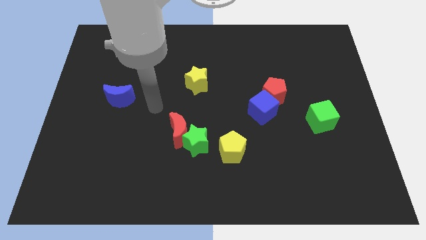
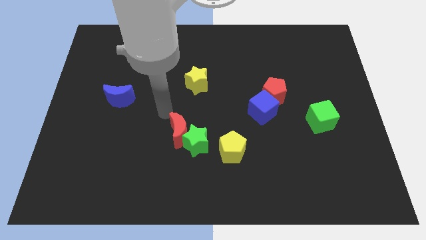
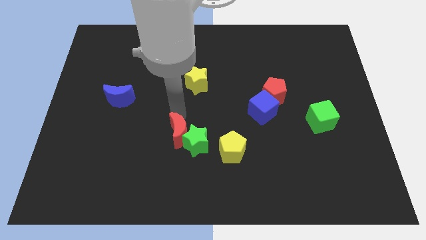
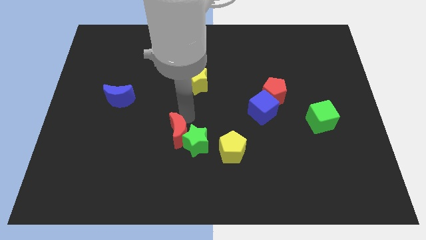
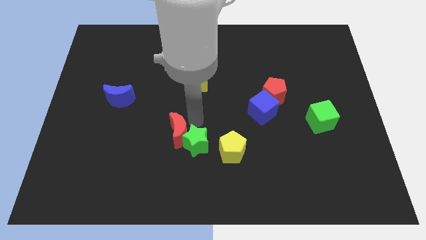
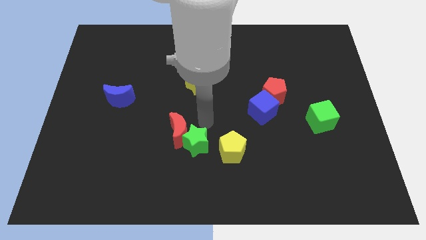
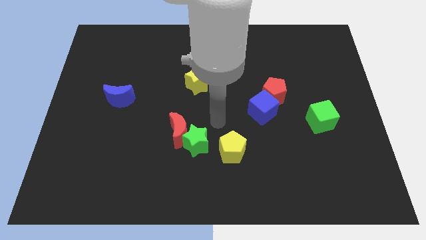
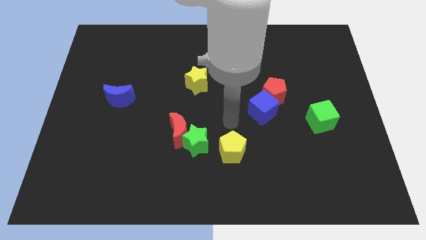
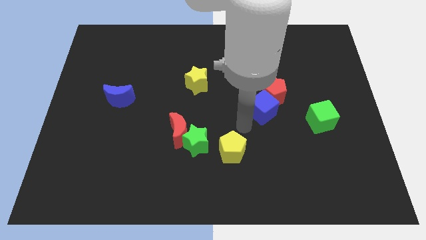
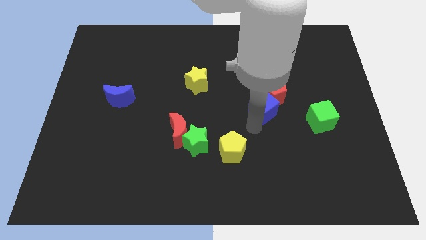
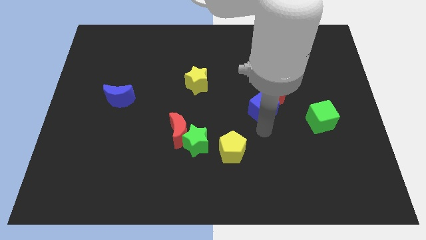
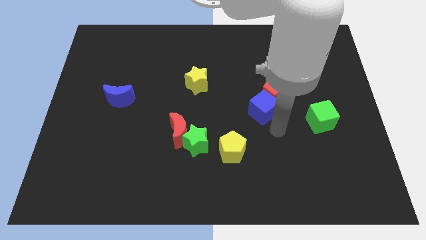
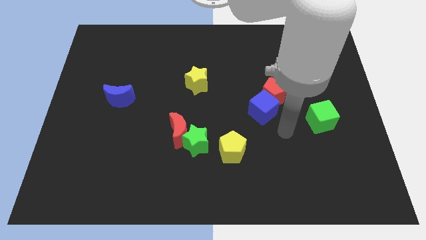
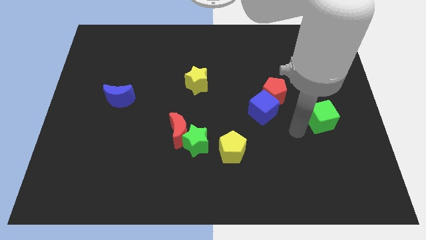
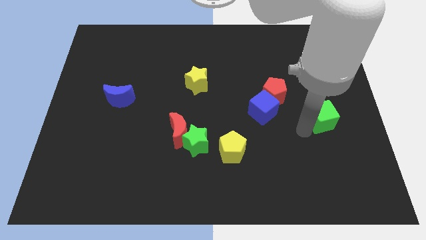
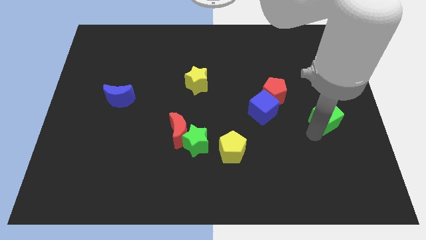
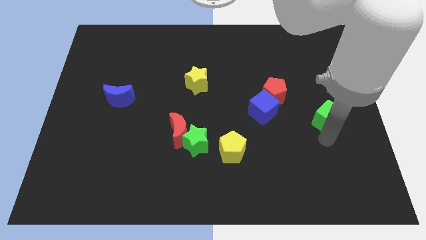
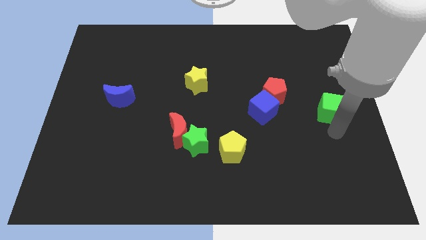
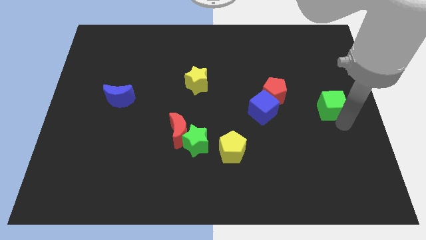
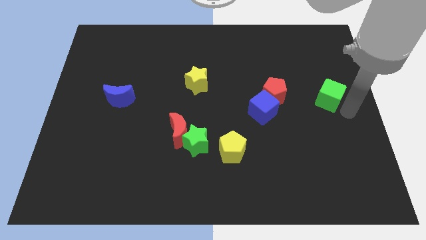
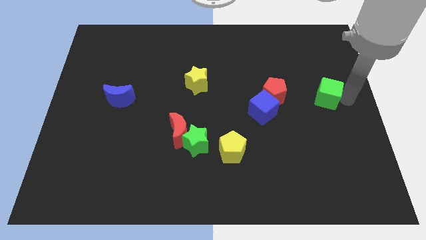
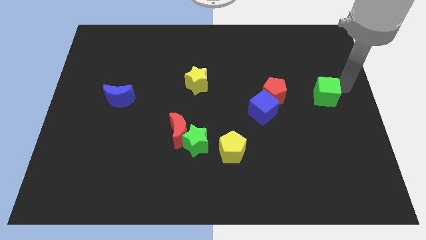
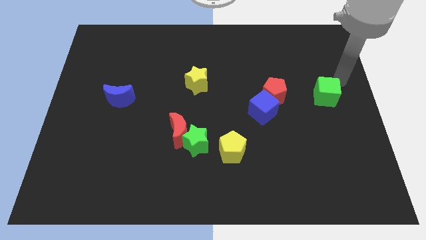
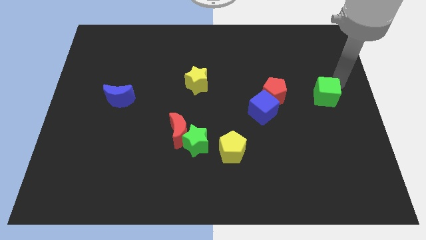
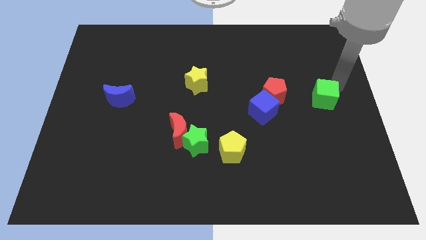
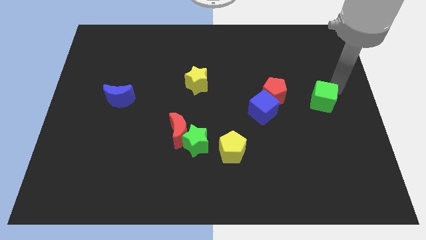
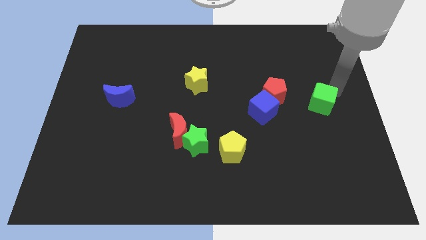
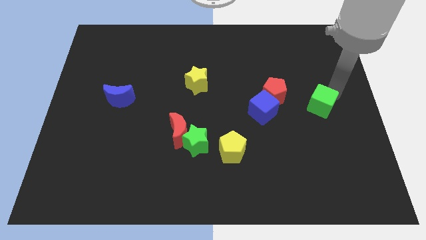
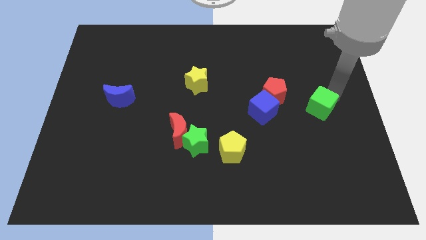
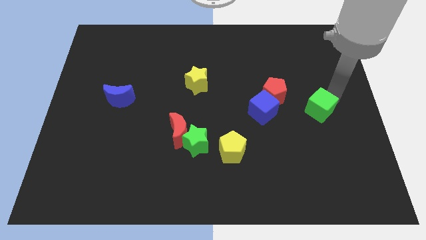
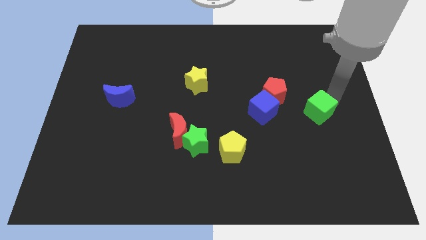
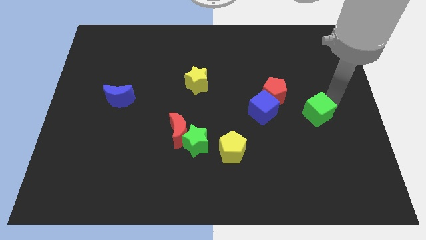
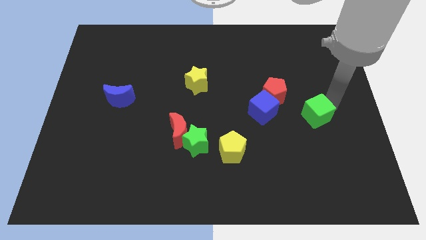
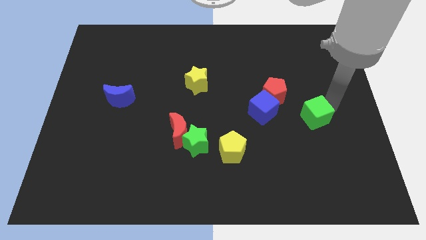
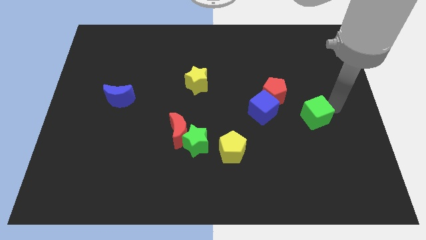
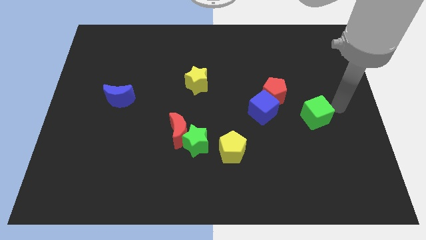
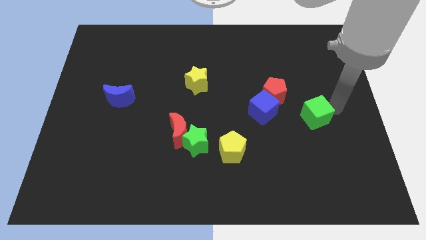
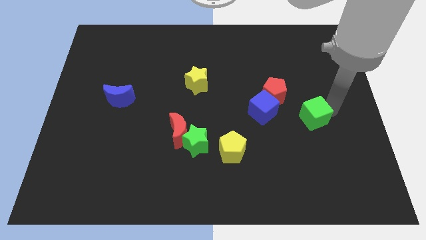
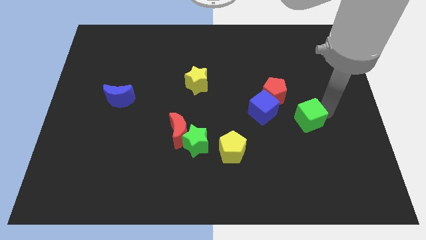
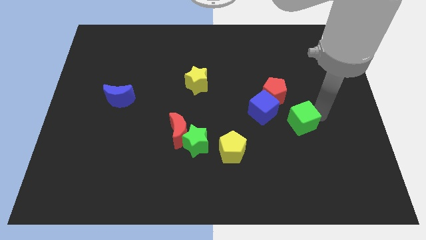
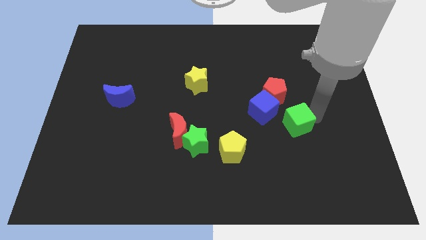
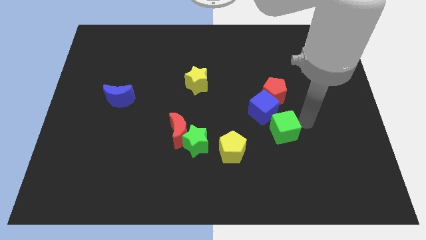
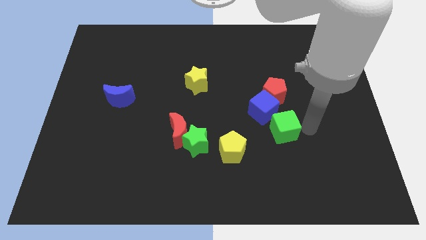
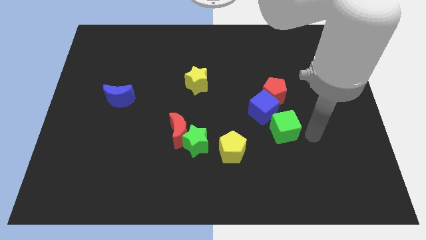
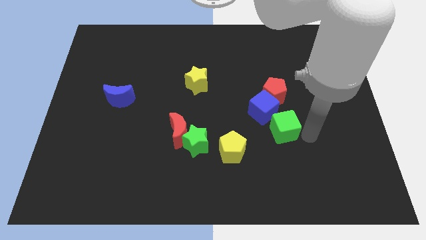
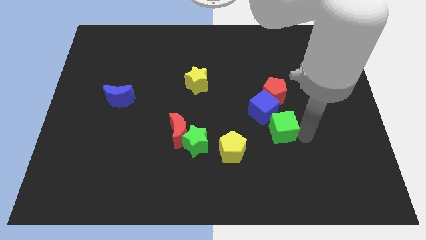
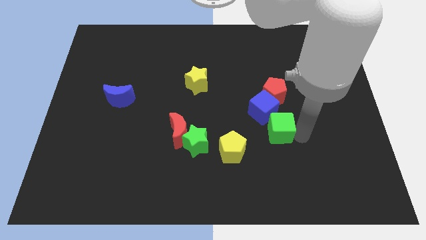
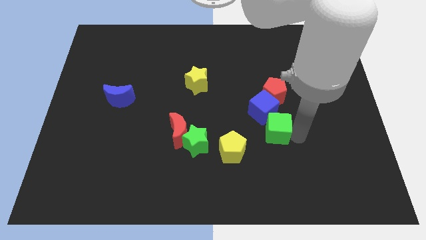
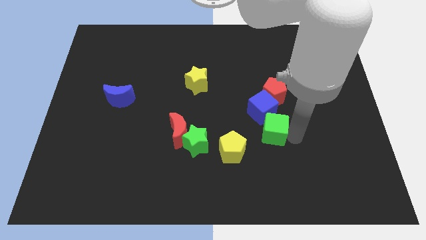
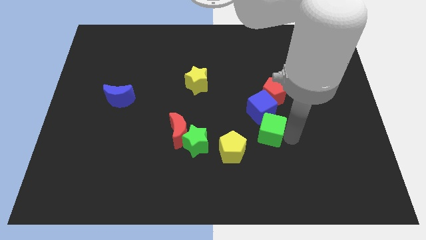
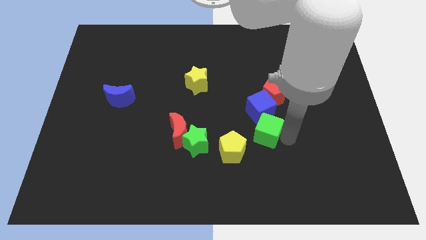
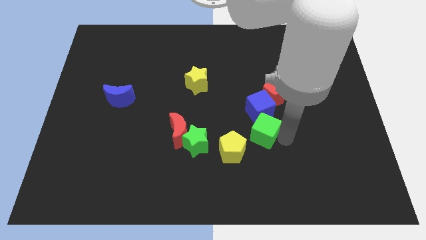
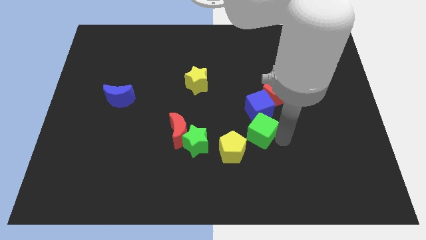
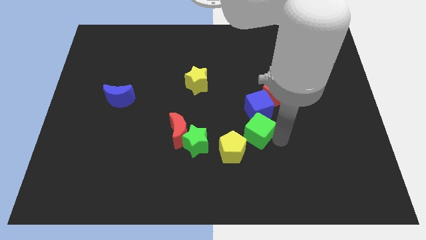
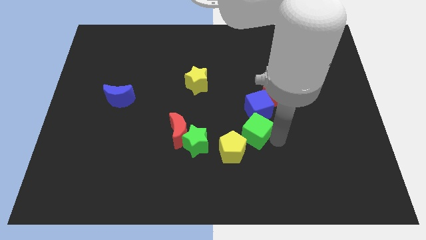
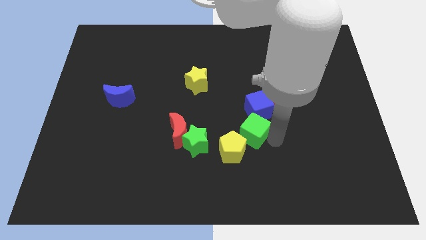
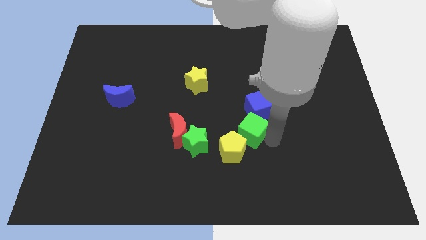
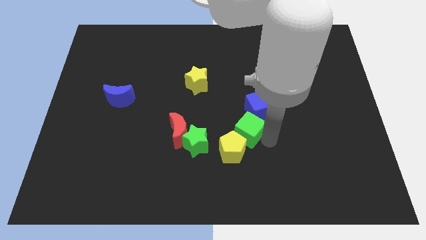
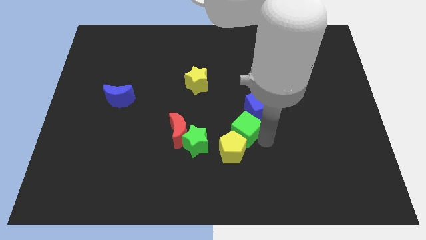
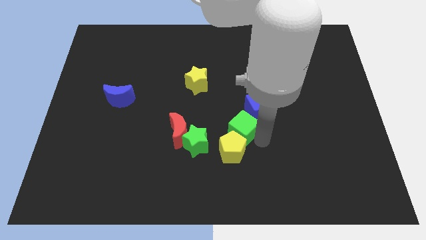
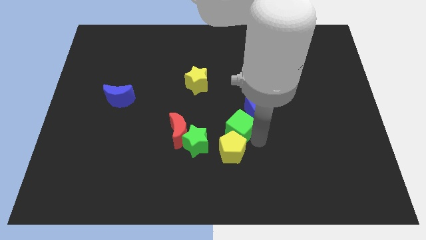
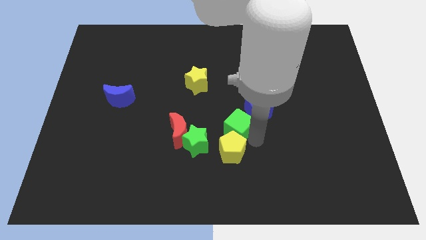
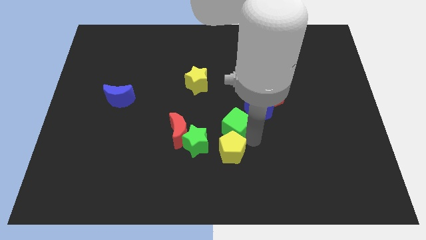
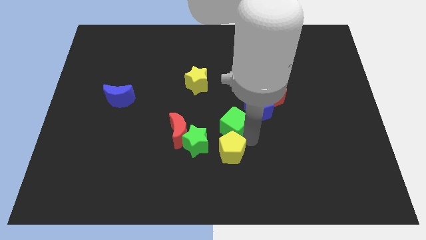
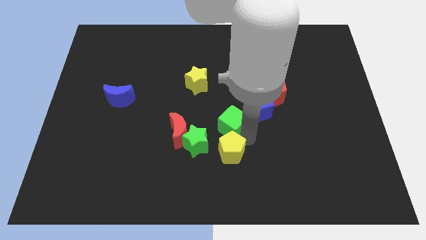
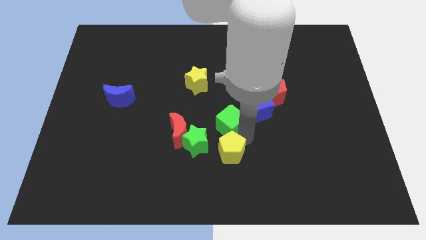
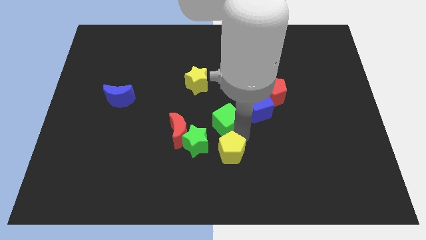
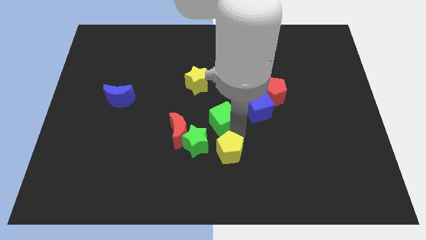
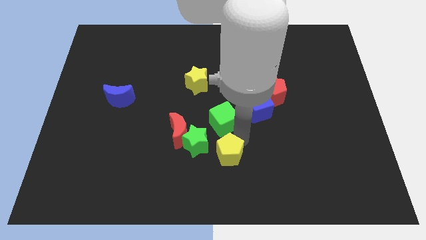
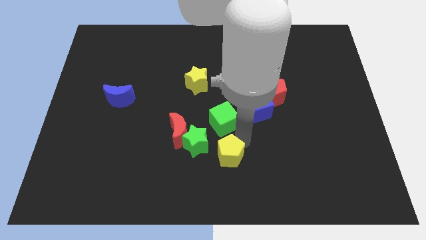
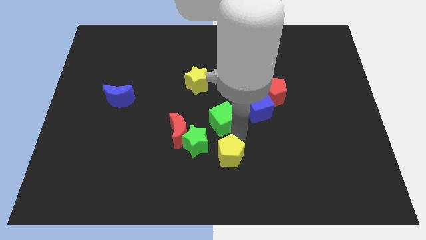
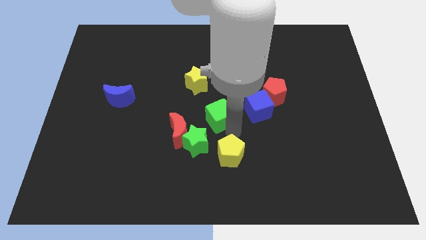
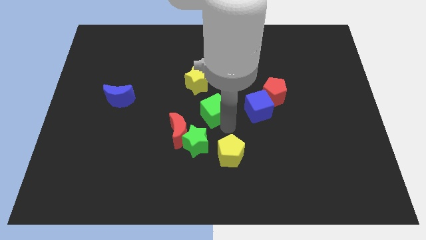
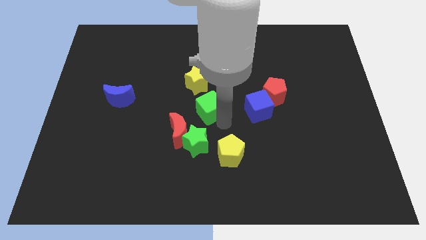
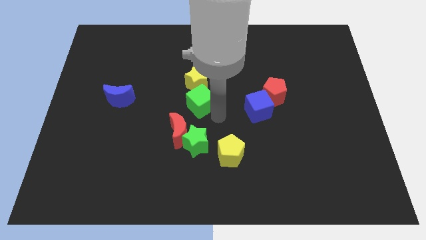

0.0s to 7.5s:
slide the green cube above the red moon
